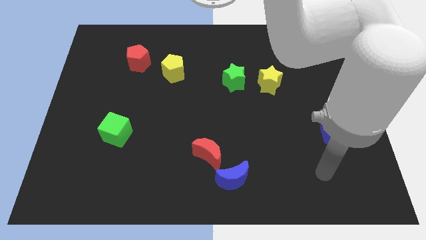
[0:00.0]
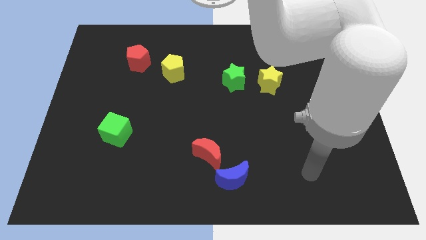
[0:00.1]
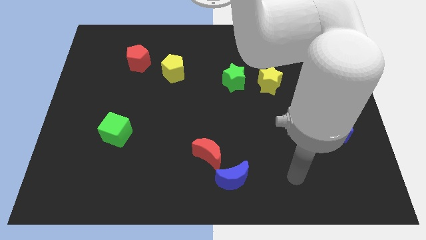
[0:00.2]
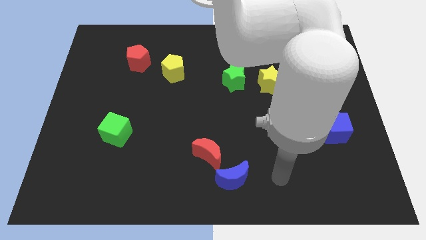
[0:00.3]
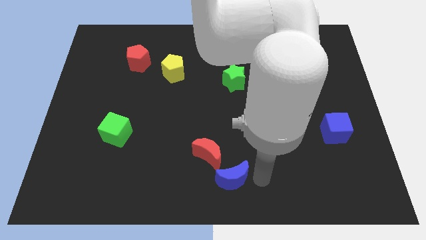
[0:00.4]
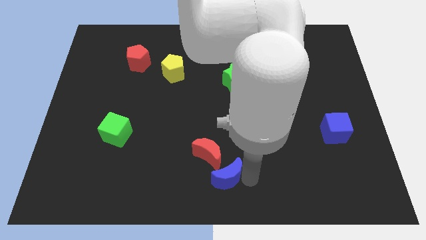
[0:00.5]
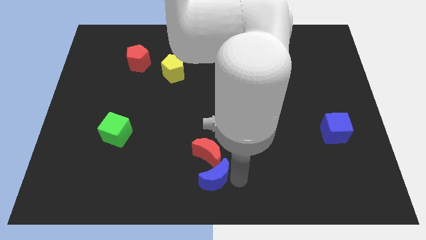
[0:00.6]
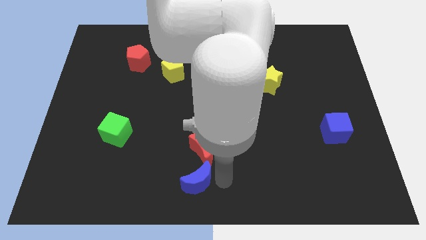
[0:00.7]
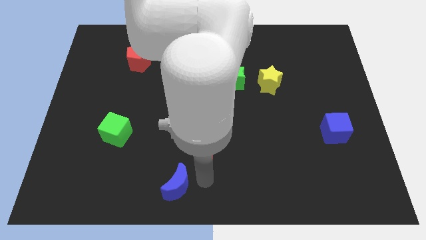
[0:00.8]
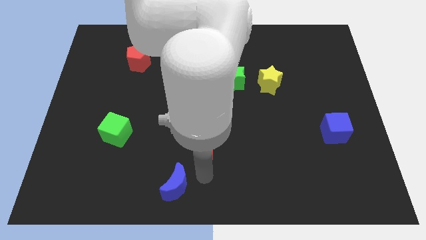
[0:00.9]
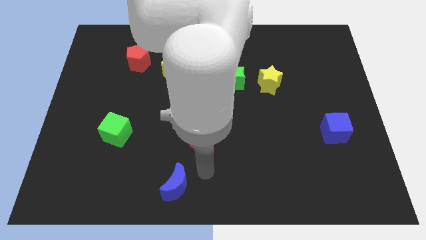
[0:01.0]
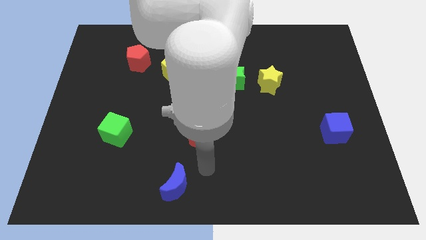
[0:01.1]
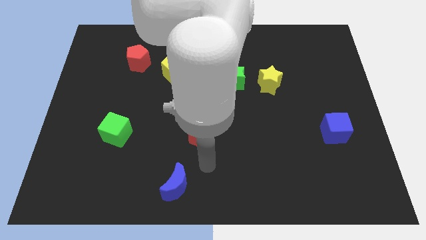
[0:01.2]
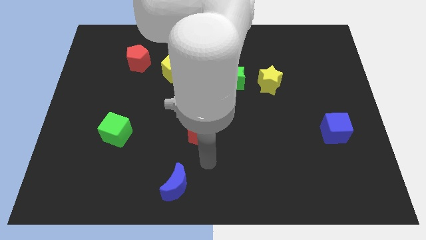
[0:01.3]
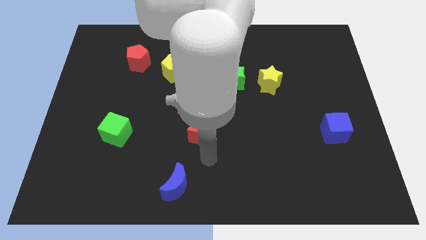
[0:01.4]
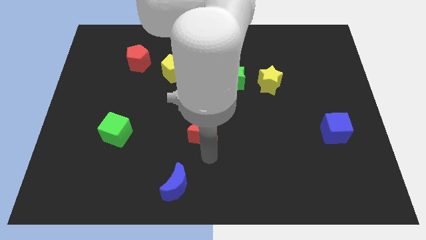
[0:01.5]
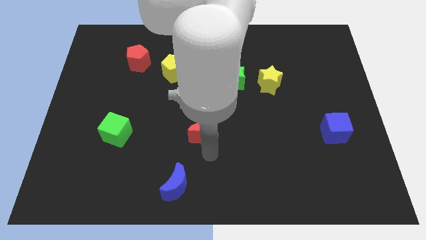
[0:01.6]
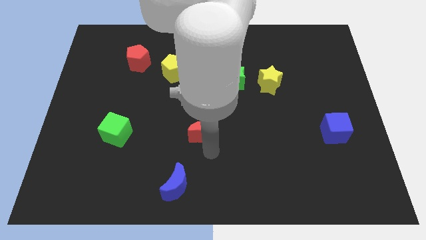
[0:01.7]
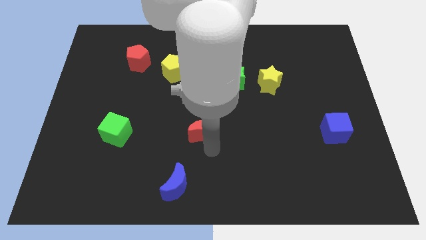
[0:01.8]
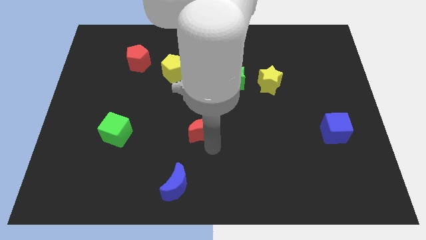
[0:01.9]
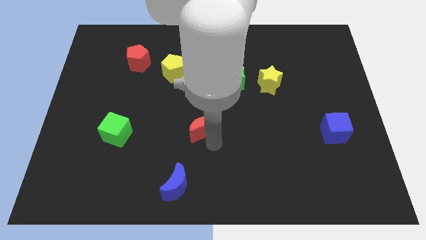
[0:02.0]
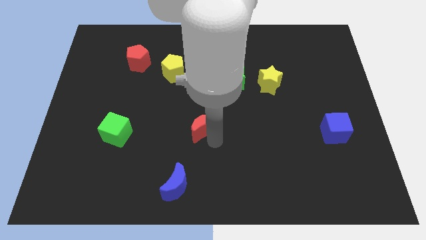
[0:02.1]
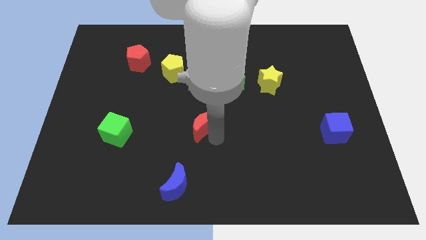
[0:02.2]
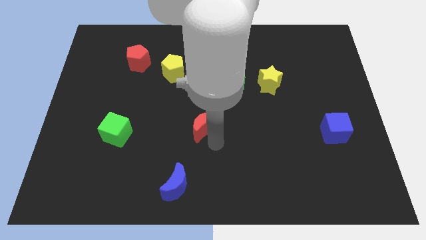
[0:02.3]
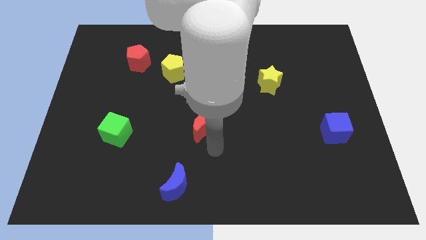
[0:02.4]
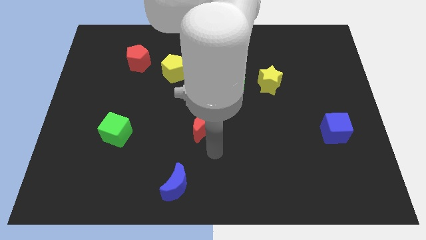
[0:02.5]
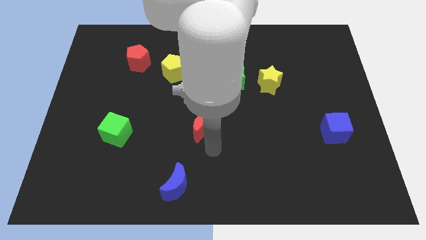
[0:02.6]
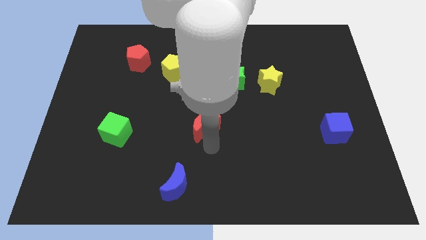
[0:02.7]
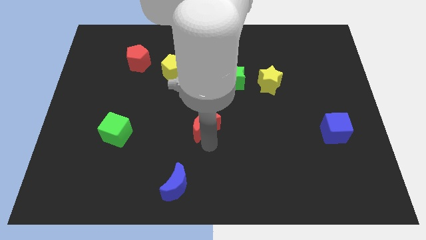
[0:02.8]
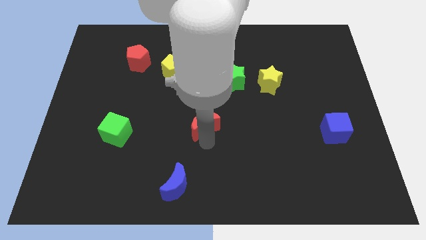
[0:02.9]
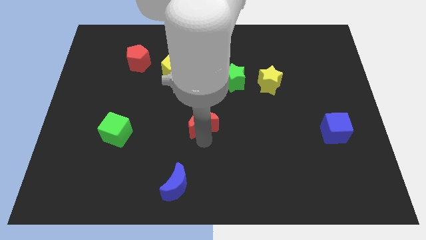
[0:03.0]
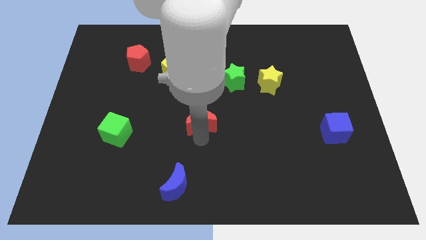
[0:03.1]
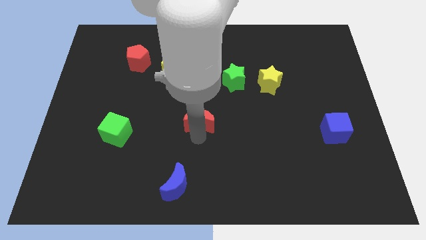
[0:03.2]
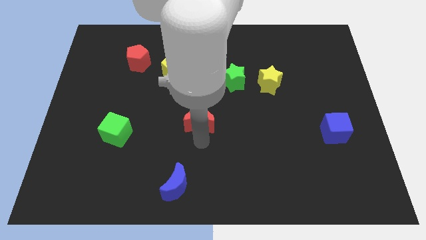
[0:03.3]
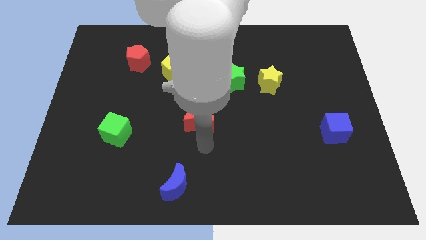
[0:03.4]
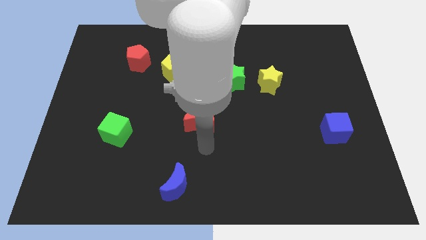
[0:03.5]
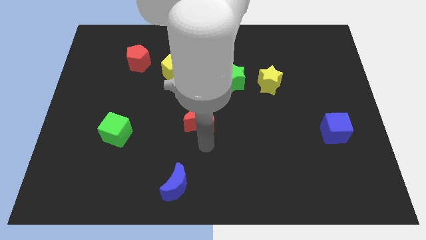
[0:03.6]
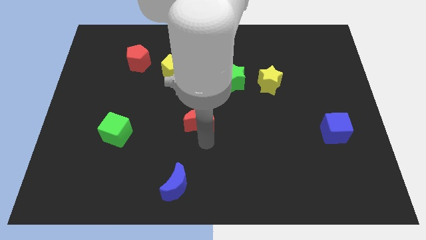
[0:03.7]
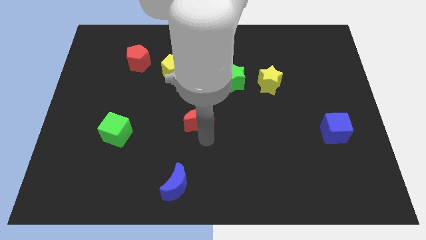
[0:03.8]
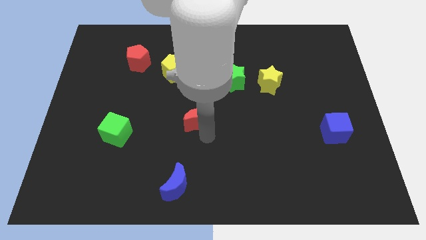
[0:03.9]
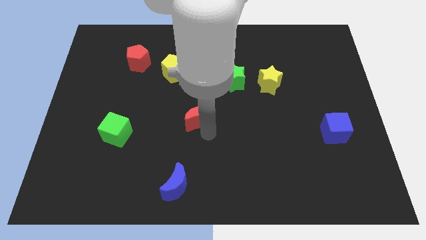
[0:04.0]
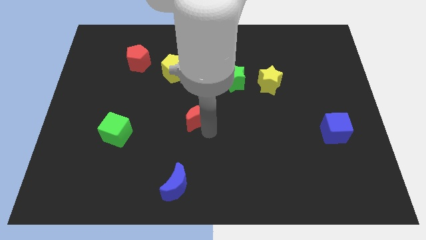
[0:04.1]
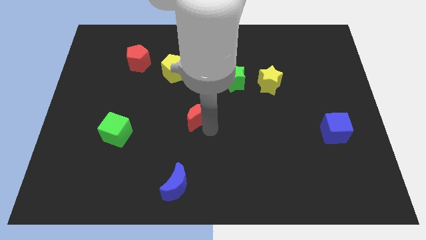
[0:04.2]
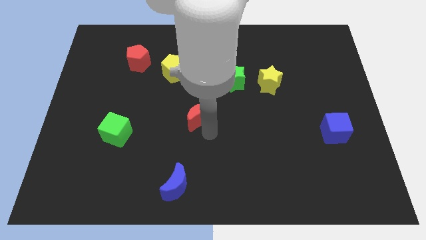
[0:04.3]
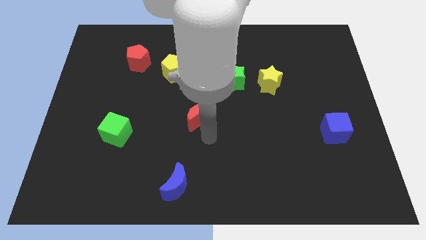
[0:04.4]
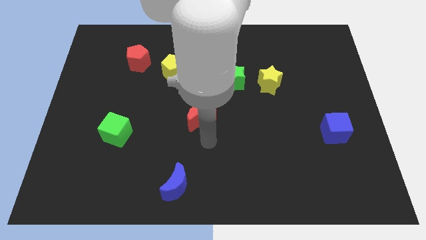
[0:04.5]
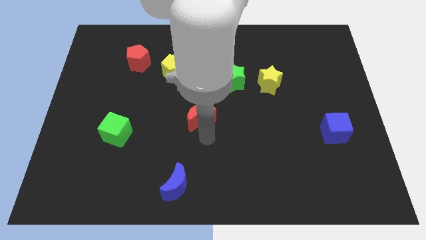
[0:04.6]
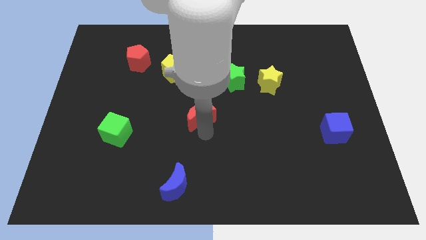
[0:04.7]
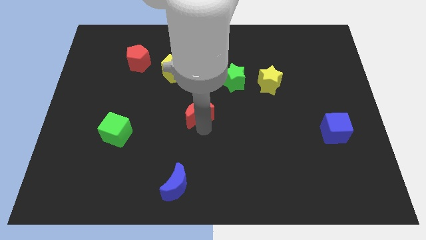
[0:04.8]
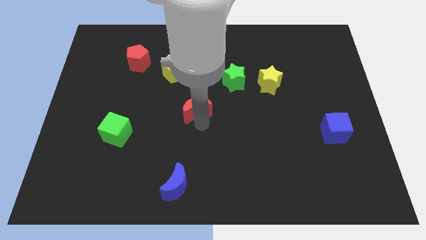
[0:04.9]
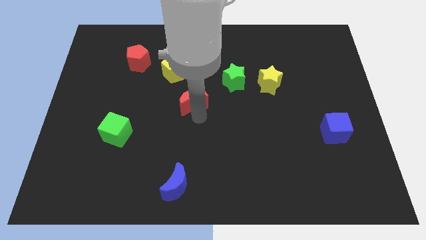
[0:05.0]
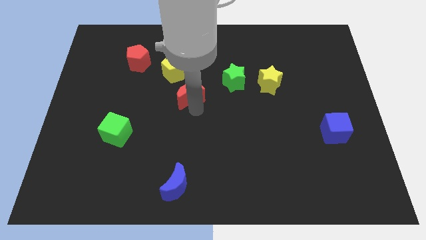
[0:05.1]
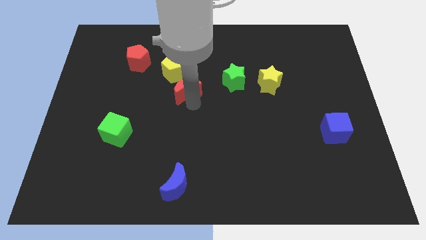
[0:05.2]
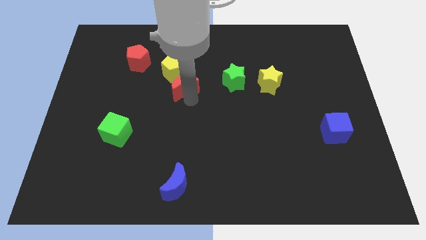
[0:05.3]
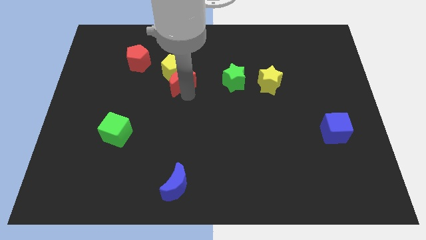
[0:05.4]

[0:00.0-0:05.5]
push the red moon to the yellow pentagon

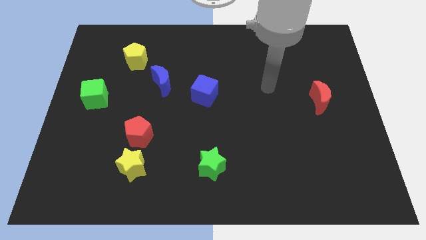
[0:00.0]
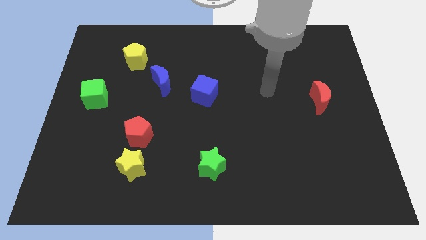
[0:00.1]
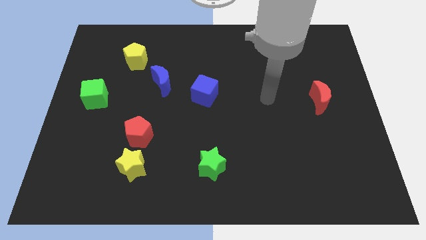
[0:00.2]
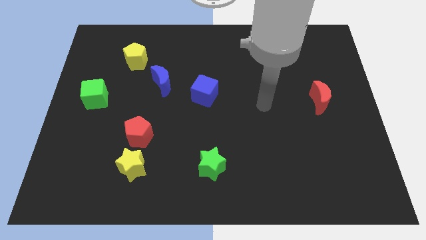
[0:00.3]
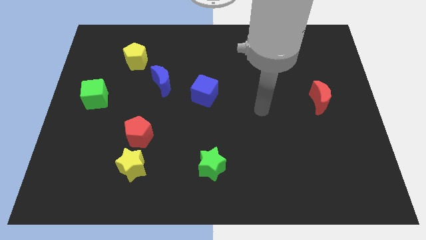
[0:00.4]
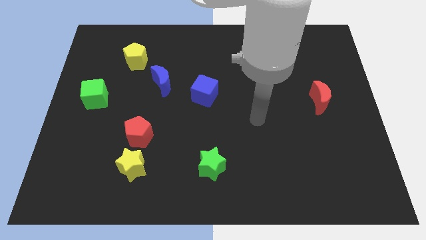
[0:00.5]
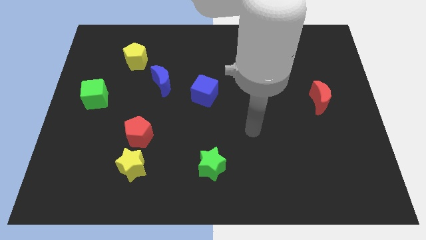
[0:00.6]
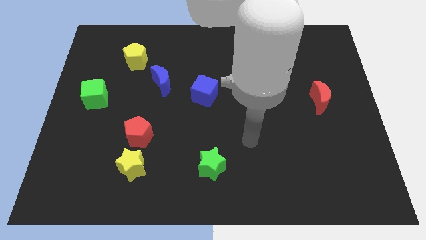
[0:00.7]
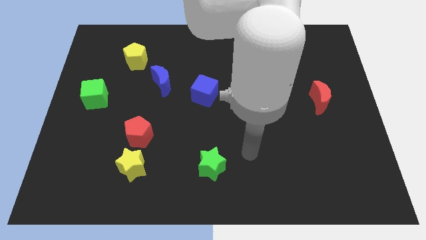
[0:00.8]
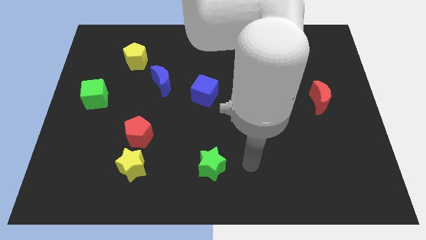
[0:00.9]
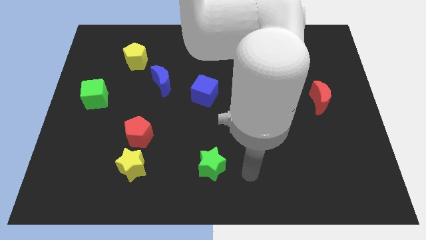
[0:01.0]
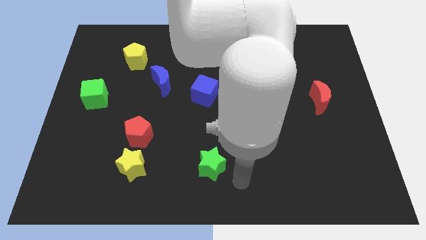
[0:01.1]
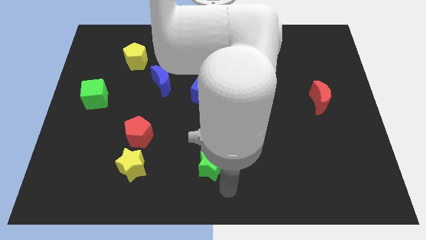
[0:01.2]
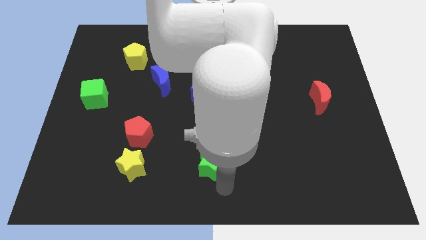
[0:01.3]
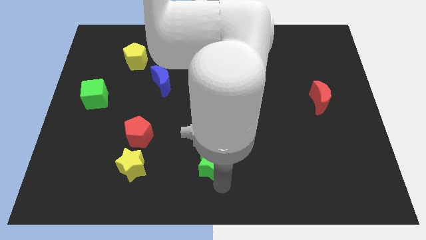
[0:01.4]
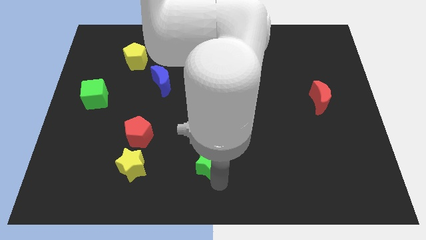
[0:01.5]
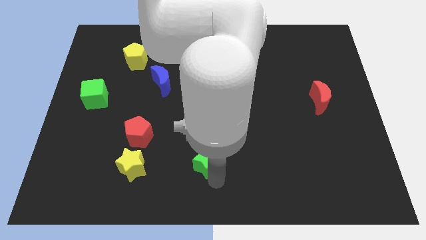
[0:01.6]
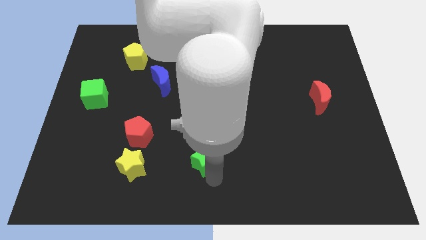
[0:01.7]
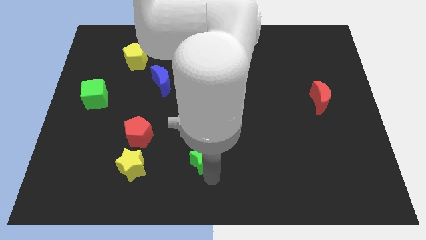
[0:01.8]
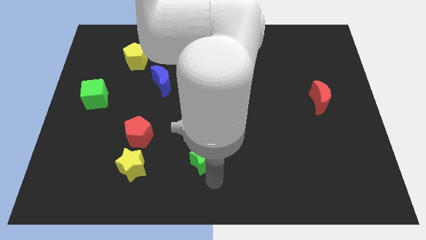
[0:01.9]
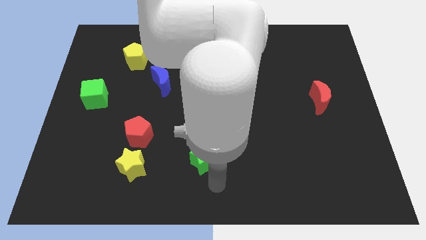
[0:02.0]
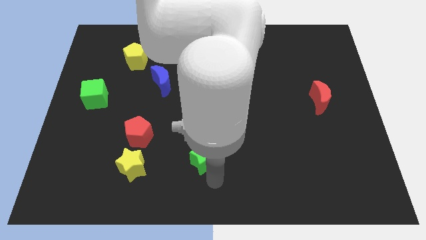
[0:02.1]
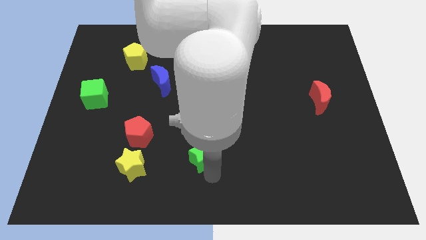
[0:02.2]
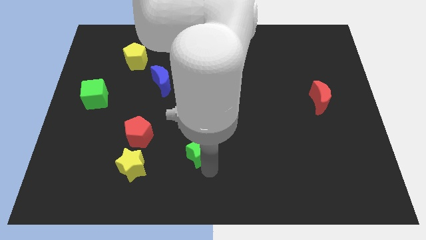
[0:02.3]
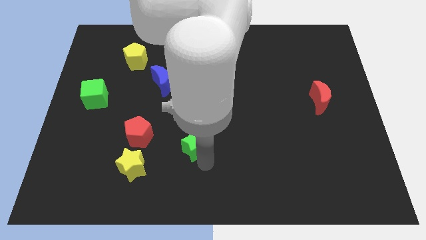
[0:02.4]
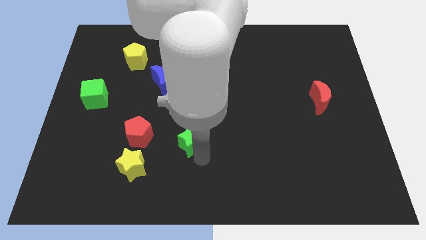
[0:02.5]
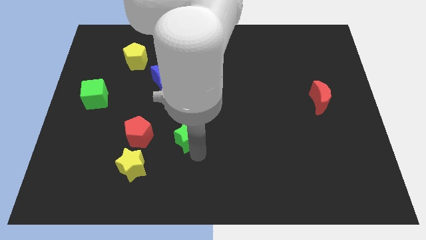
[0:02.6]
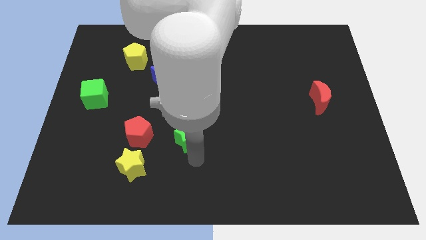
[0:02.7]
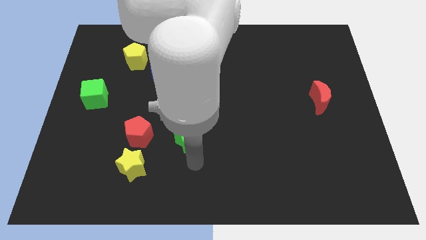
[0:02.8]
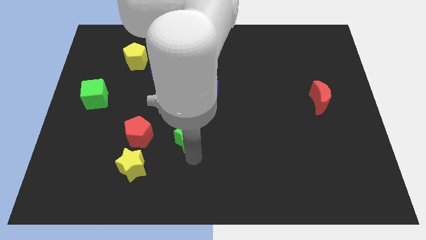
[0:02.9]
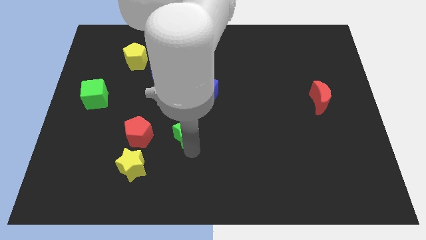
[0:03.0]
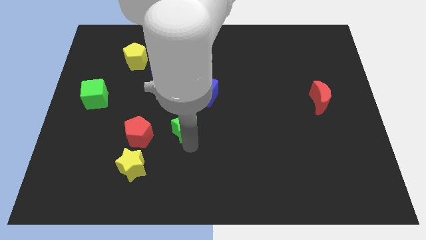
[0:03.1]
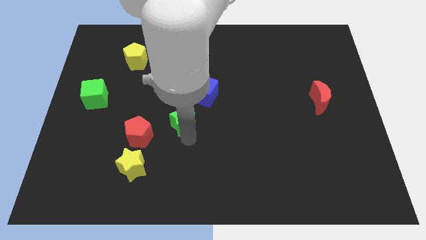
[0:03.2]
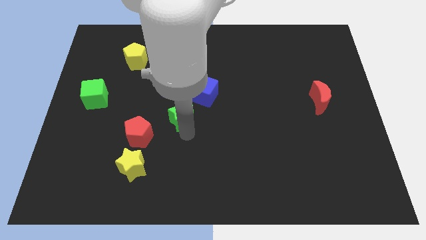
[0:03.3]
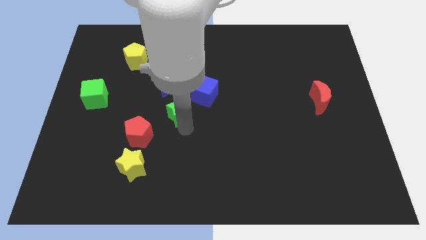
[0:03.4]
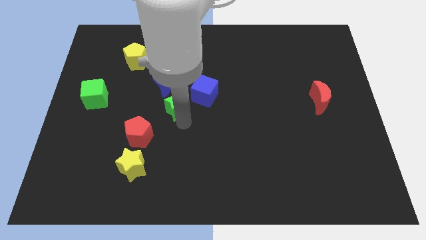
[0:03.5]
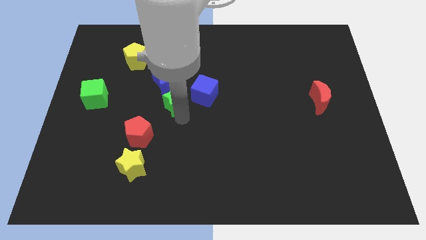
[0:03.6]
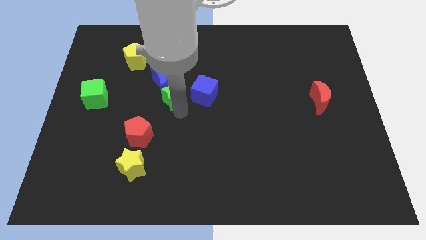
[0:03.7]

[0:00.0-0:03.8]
slide the green star to the blue moon
